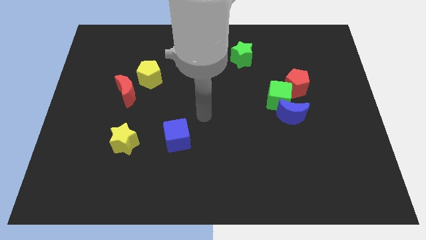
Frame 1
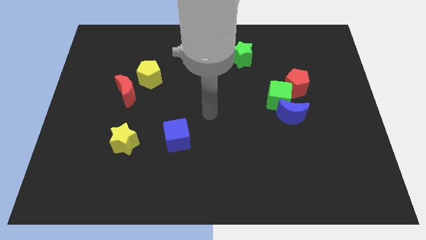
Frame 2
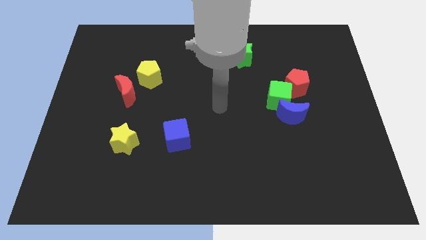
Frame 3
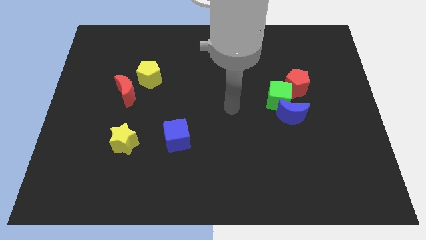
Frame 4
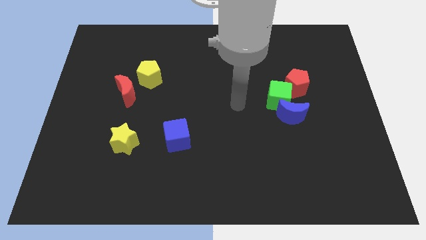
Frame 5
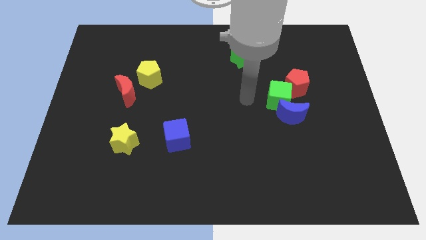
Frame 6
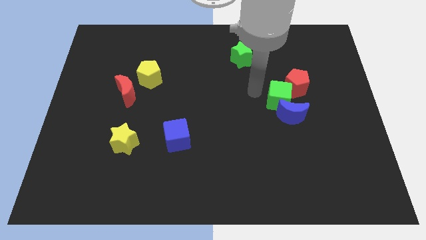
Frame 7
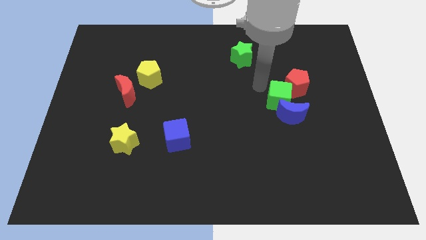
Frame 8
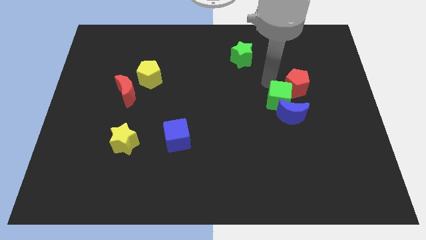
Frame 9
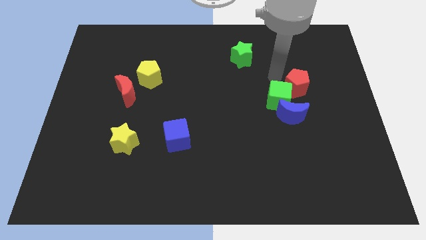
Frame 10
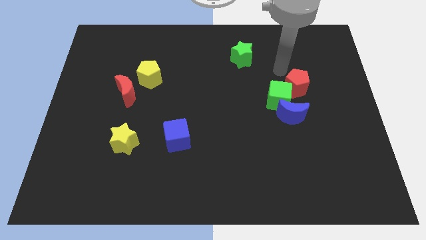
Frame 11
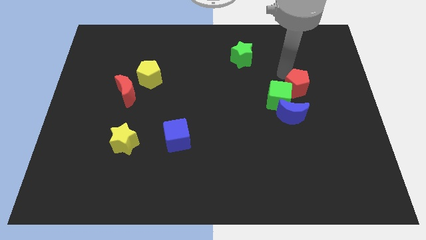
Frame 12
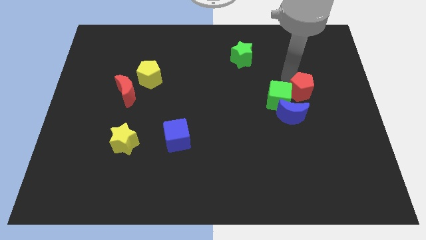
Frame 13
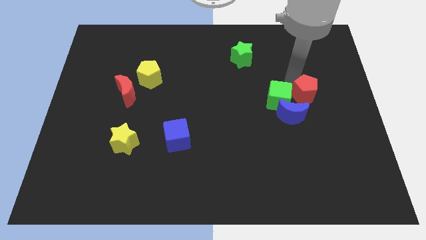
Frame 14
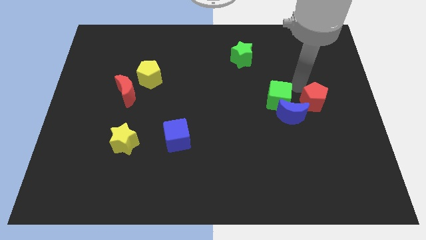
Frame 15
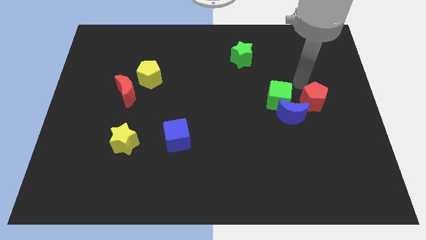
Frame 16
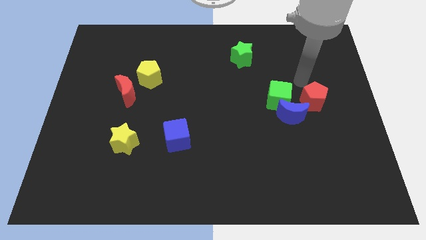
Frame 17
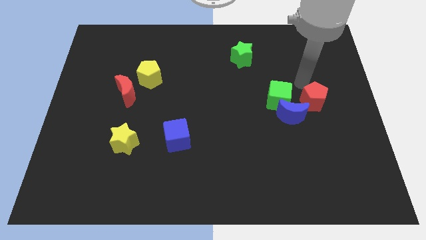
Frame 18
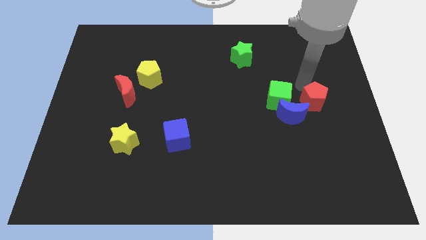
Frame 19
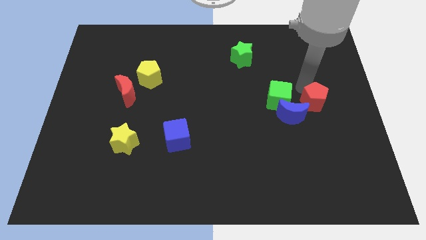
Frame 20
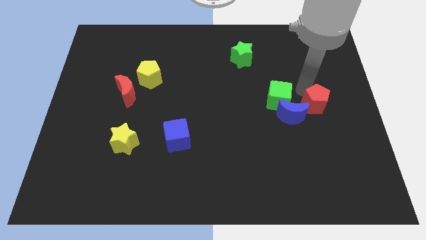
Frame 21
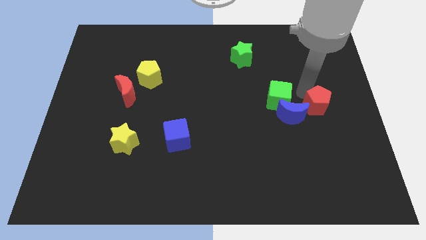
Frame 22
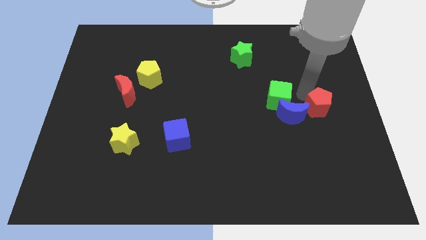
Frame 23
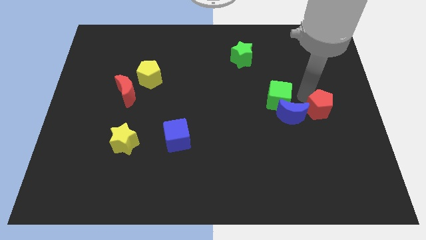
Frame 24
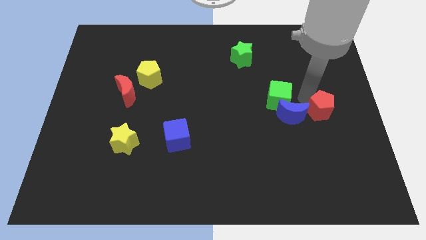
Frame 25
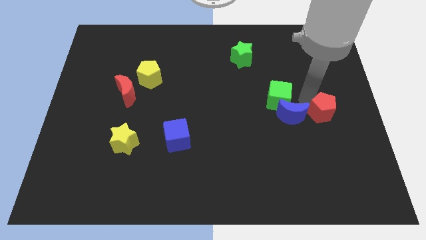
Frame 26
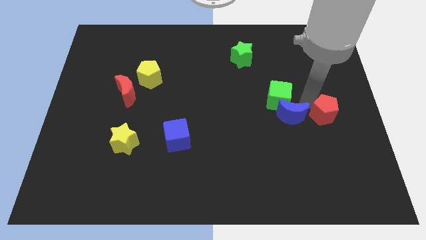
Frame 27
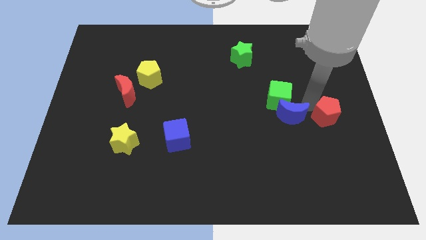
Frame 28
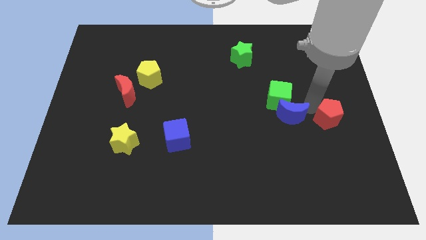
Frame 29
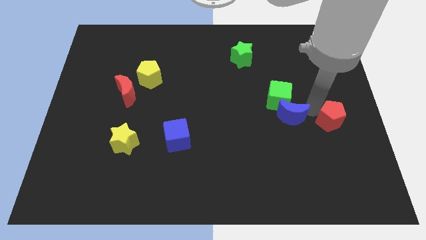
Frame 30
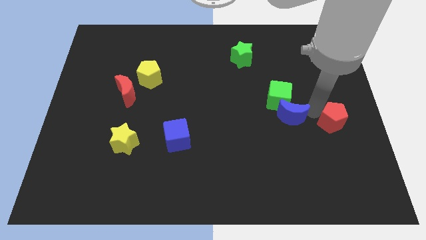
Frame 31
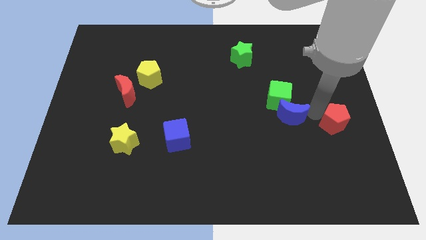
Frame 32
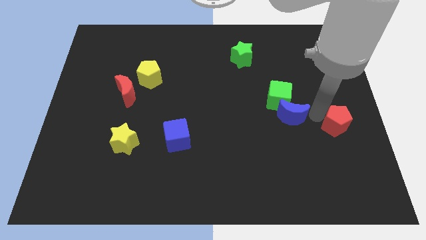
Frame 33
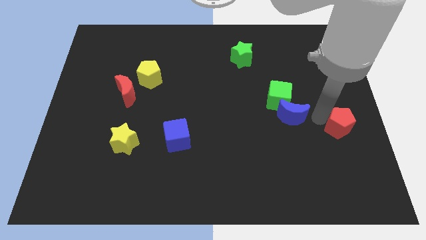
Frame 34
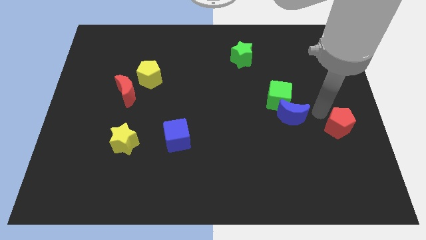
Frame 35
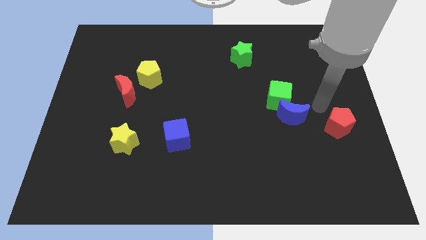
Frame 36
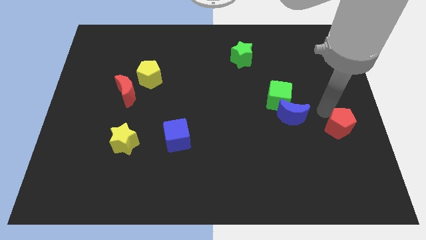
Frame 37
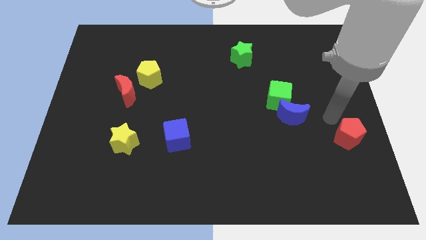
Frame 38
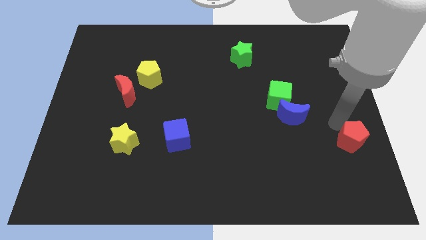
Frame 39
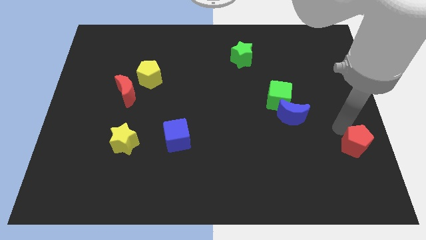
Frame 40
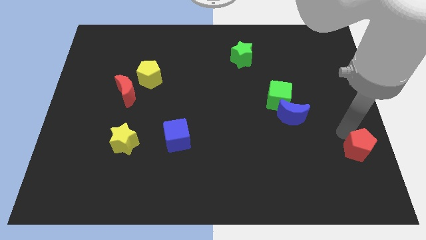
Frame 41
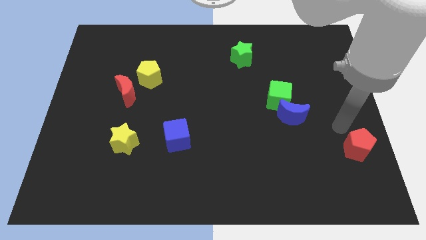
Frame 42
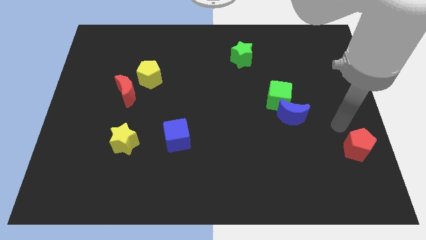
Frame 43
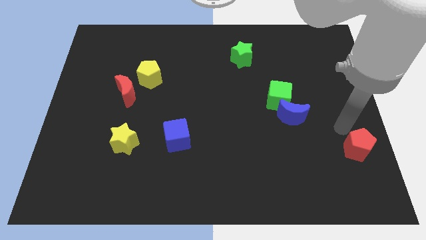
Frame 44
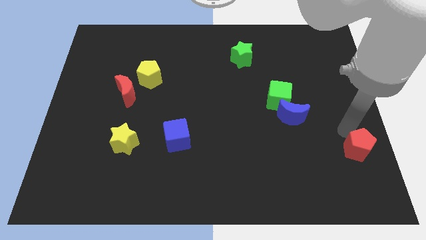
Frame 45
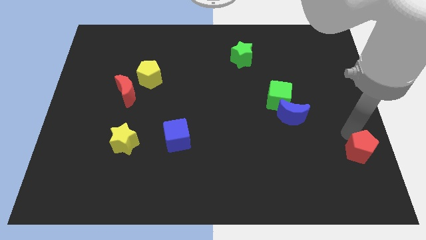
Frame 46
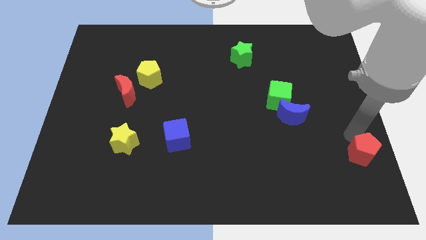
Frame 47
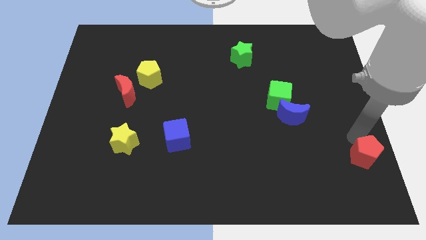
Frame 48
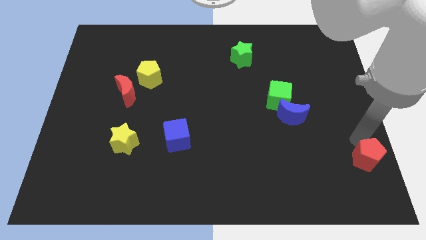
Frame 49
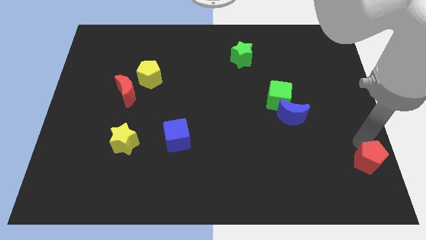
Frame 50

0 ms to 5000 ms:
push the red pentagon to the bottom right

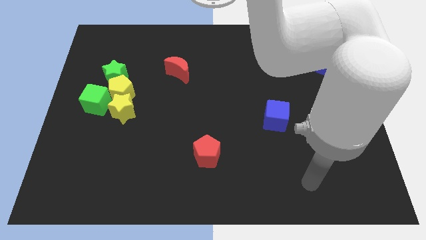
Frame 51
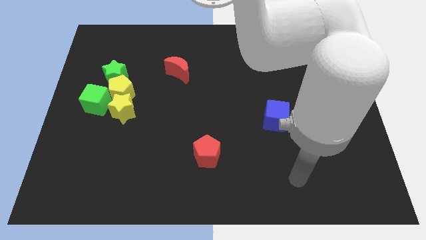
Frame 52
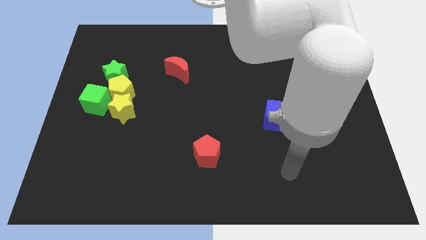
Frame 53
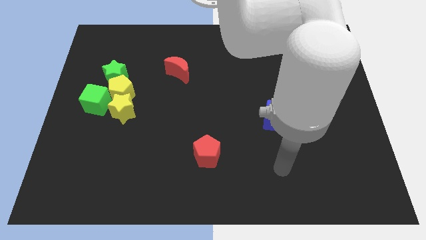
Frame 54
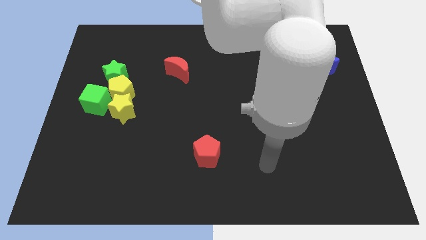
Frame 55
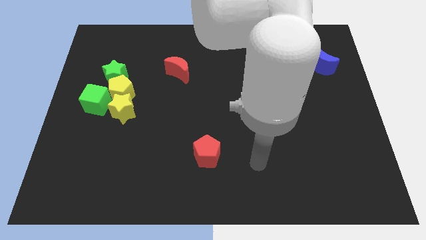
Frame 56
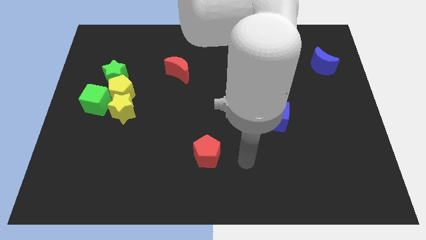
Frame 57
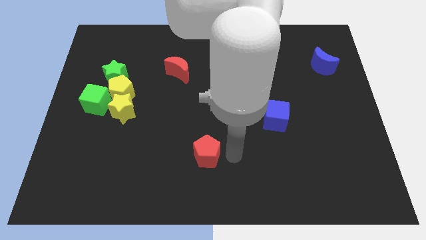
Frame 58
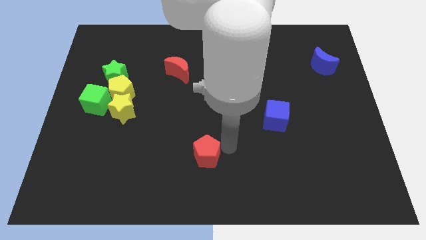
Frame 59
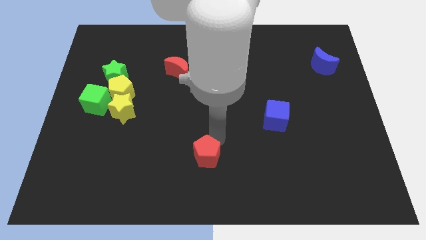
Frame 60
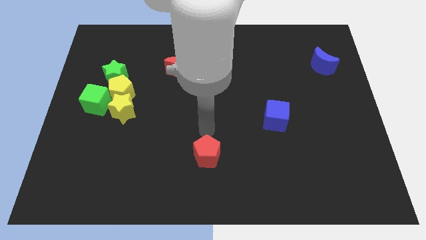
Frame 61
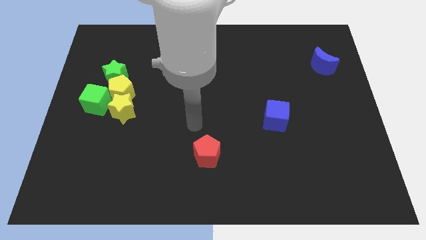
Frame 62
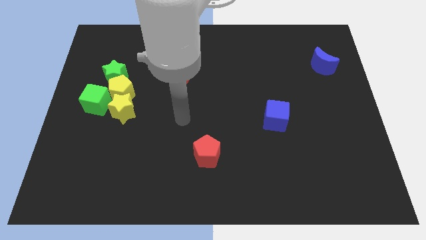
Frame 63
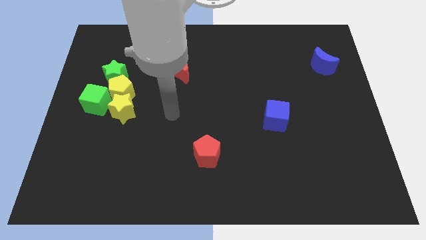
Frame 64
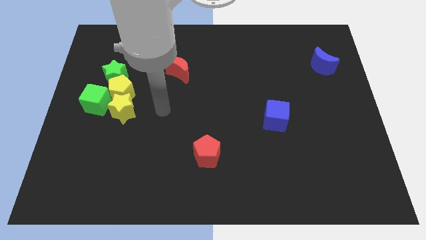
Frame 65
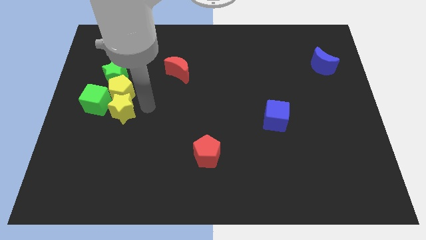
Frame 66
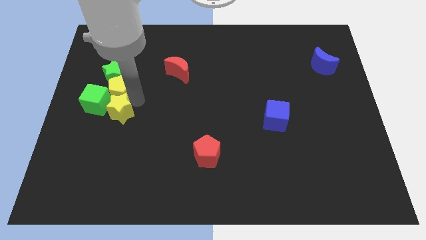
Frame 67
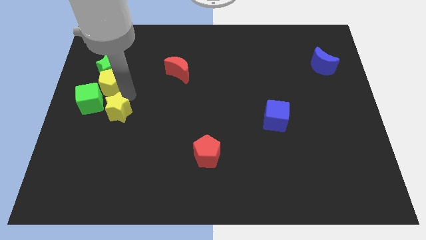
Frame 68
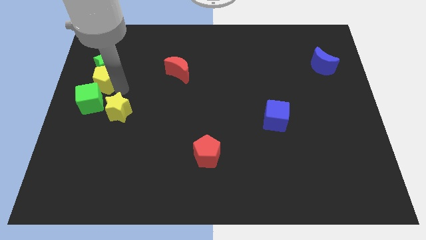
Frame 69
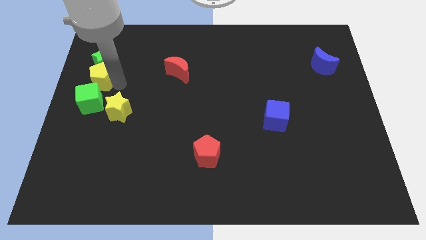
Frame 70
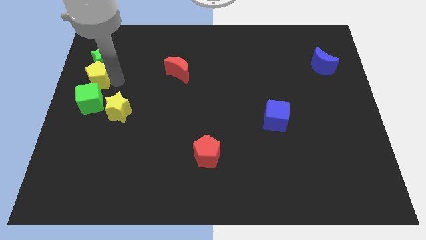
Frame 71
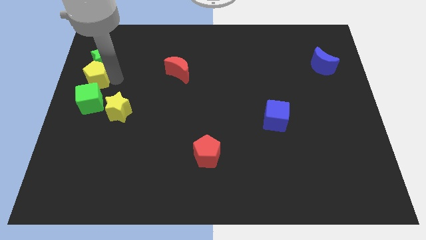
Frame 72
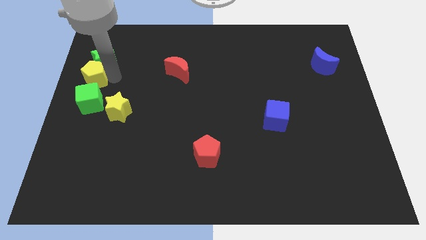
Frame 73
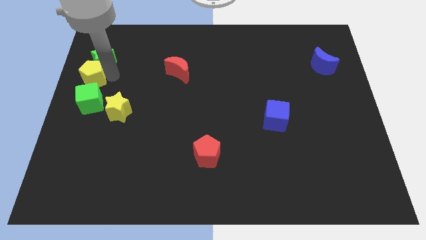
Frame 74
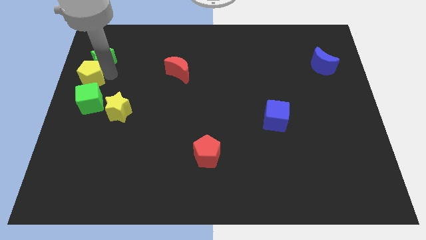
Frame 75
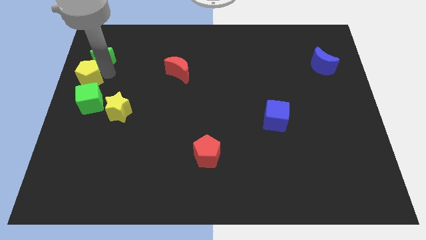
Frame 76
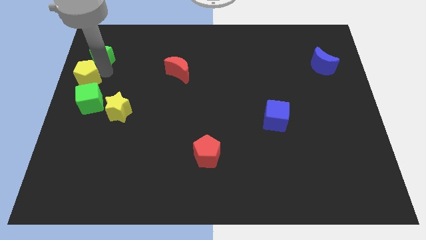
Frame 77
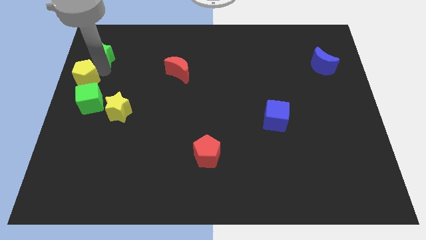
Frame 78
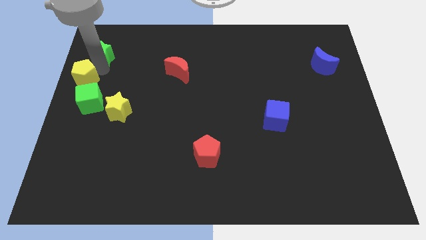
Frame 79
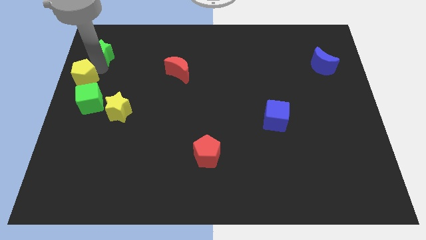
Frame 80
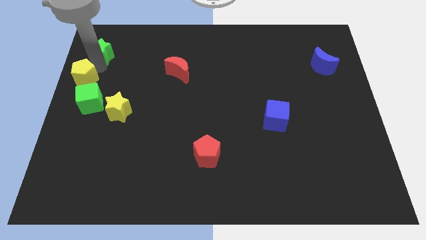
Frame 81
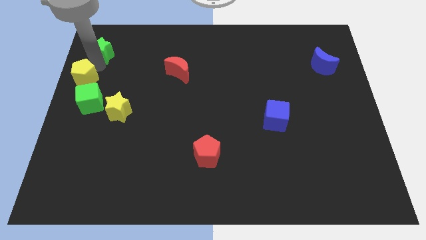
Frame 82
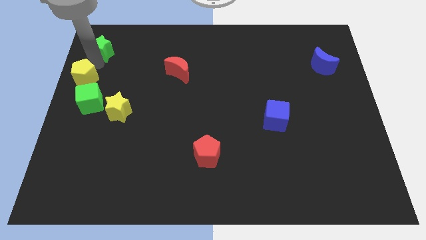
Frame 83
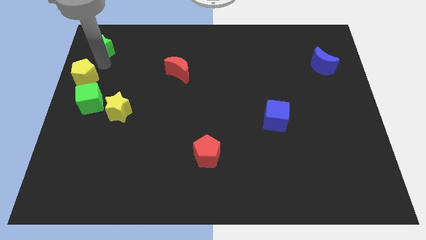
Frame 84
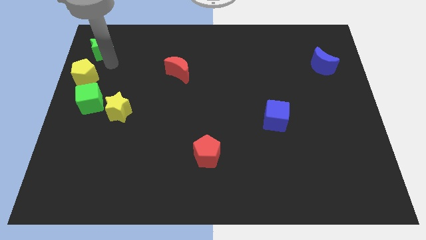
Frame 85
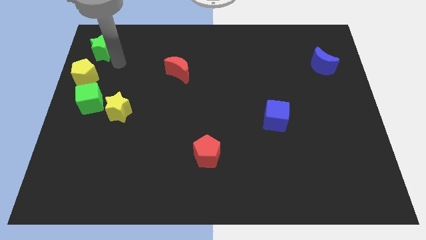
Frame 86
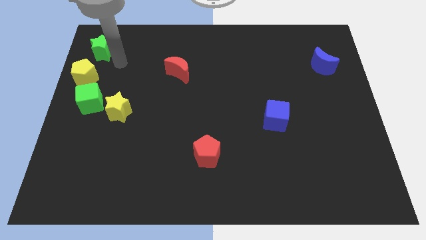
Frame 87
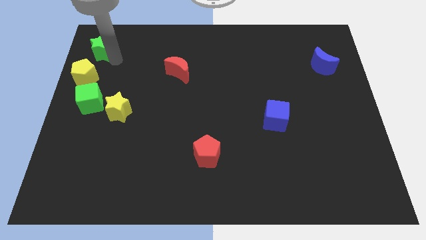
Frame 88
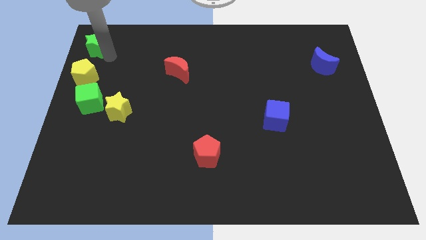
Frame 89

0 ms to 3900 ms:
push the green star to the top left
